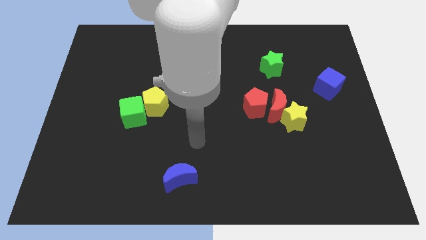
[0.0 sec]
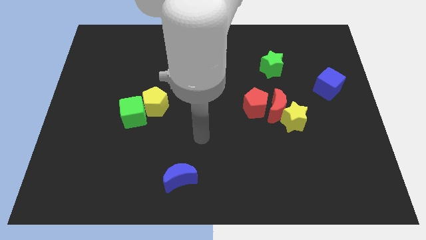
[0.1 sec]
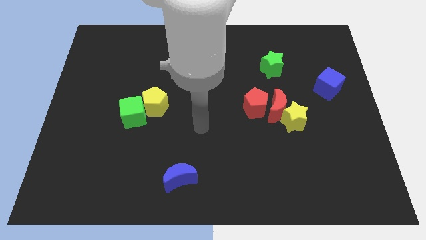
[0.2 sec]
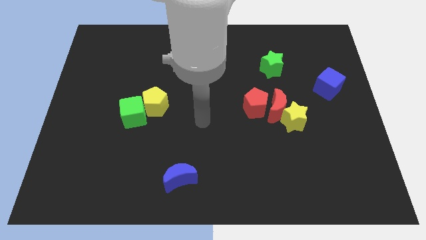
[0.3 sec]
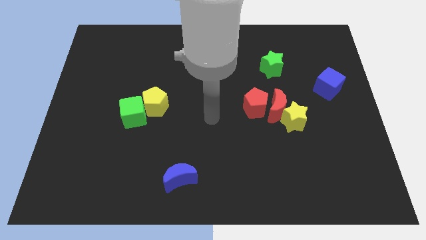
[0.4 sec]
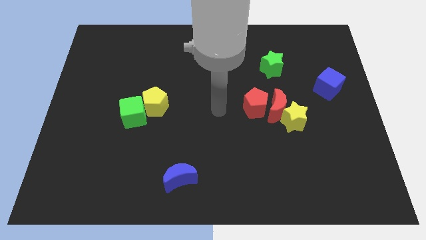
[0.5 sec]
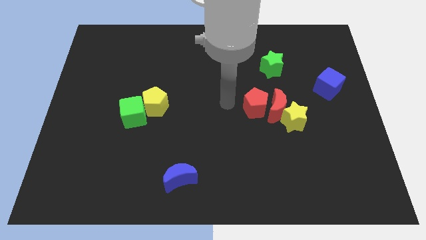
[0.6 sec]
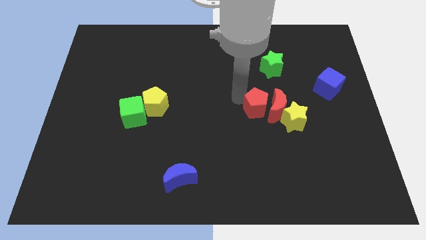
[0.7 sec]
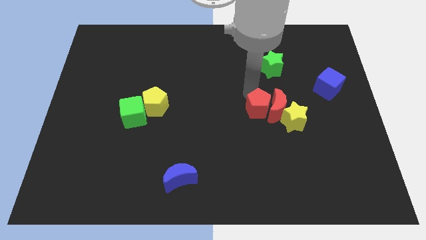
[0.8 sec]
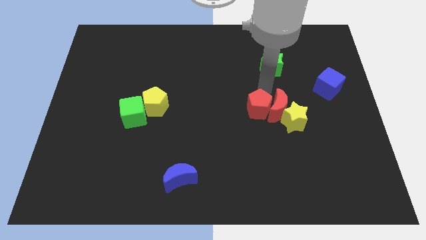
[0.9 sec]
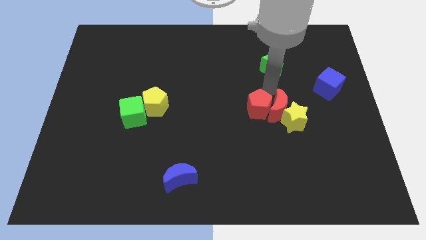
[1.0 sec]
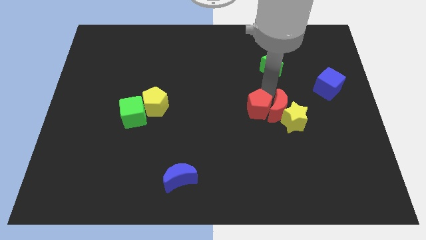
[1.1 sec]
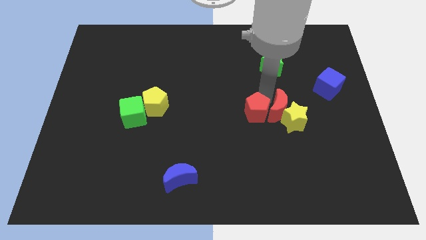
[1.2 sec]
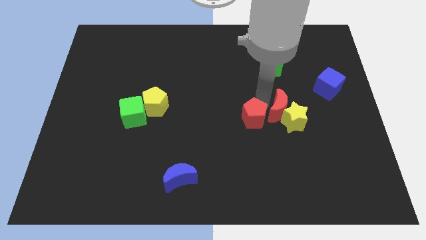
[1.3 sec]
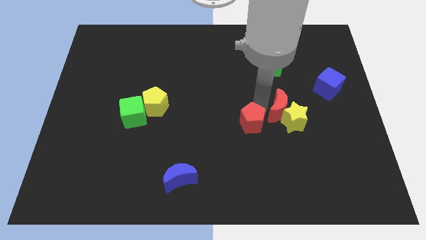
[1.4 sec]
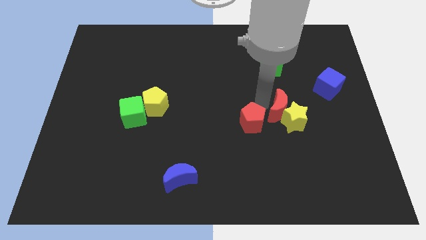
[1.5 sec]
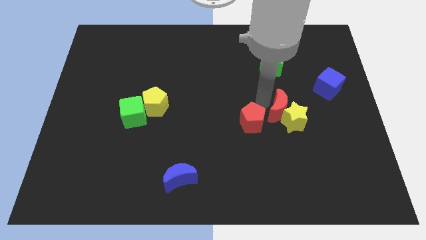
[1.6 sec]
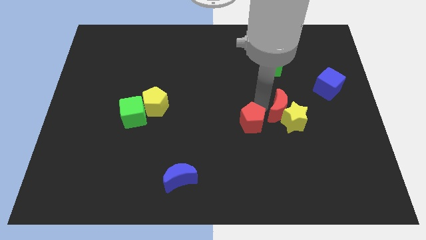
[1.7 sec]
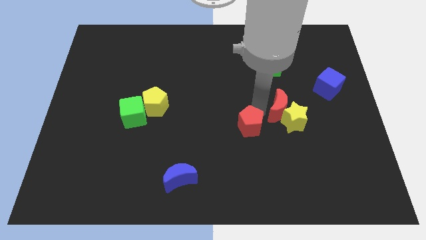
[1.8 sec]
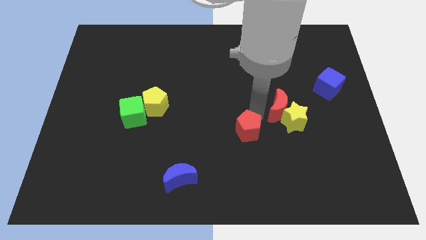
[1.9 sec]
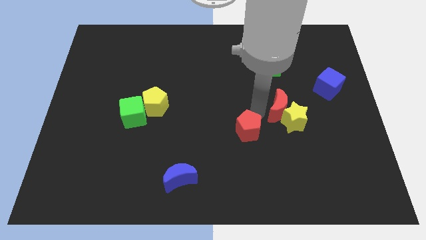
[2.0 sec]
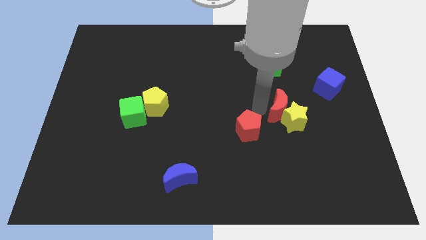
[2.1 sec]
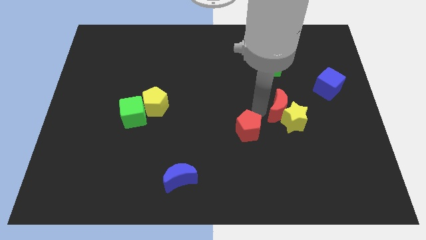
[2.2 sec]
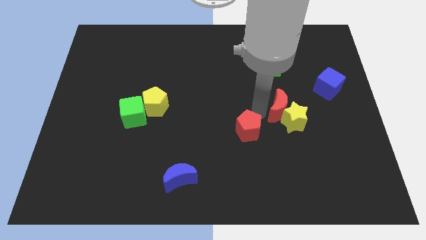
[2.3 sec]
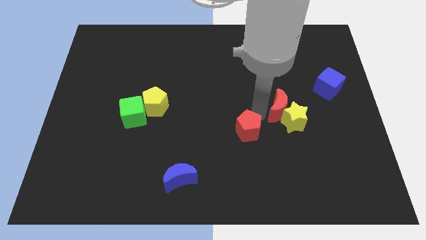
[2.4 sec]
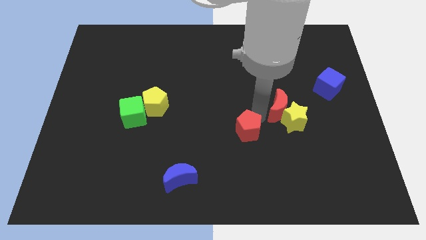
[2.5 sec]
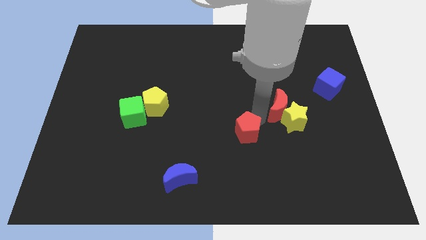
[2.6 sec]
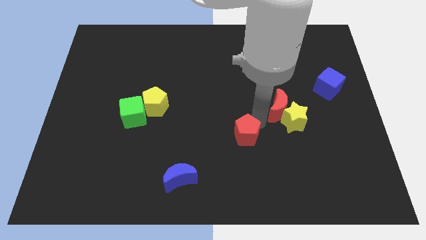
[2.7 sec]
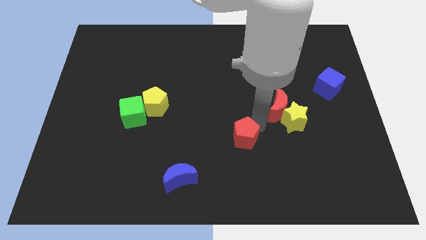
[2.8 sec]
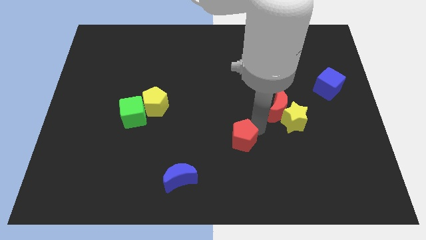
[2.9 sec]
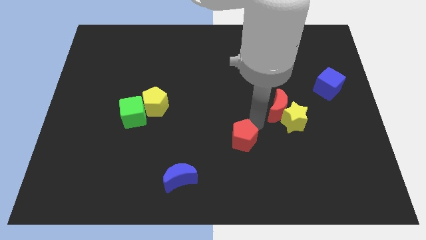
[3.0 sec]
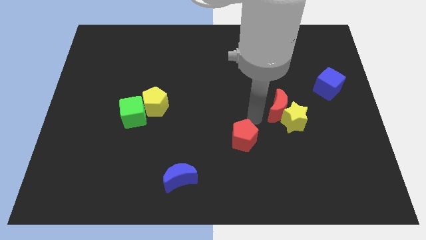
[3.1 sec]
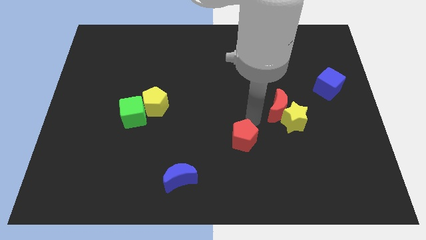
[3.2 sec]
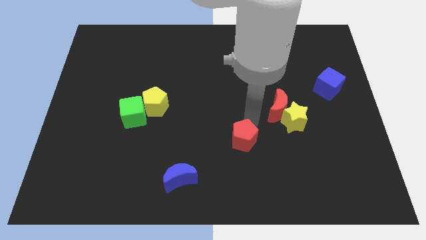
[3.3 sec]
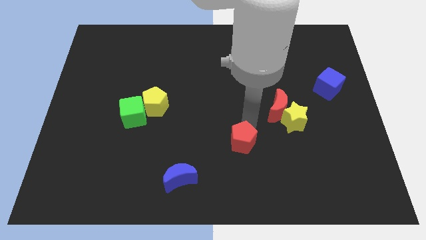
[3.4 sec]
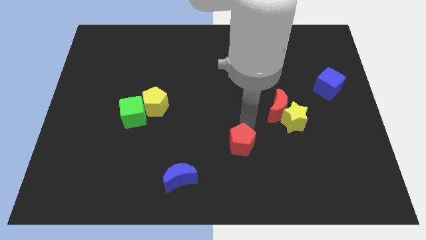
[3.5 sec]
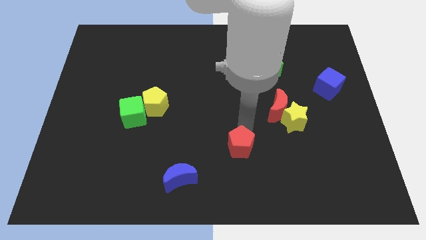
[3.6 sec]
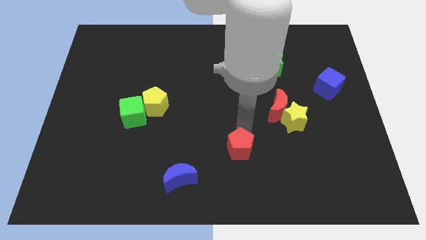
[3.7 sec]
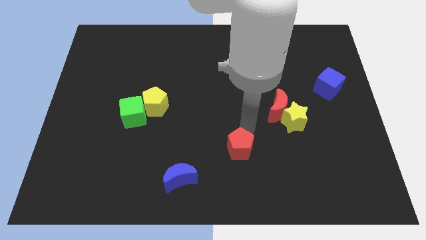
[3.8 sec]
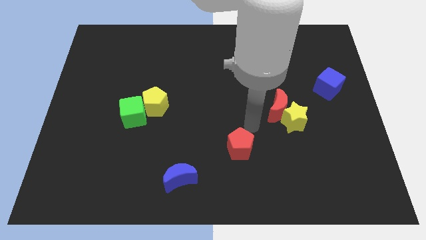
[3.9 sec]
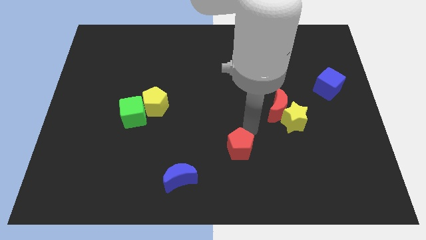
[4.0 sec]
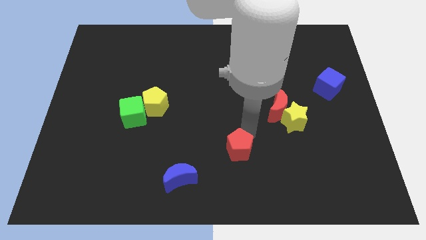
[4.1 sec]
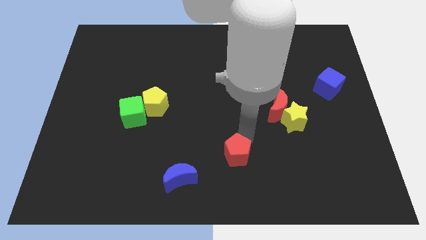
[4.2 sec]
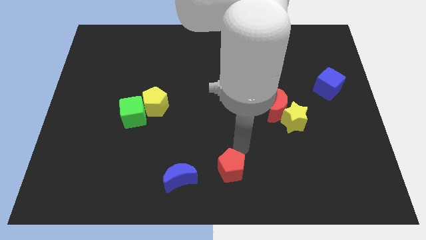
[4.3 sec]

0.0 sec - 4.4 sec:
put the red pentagon to the bottom

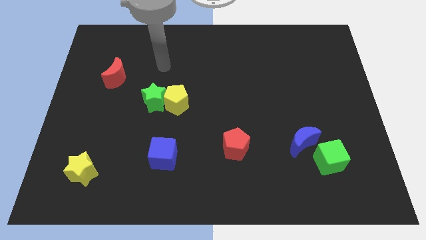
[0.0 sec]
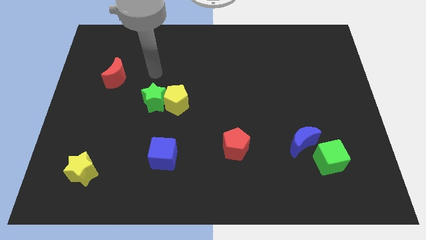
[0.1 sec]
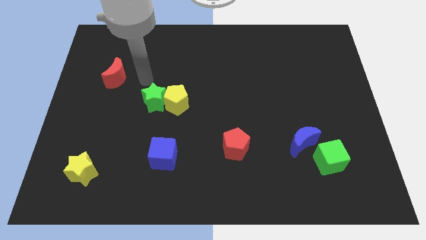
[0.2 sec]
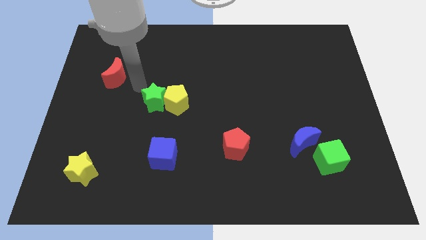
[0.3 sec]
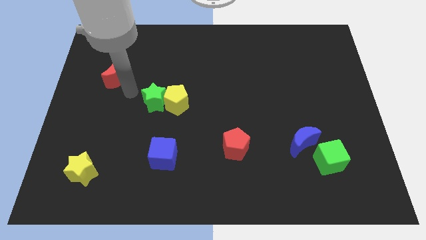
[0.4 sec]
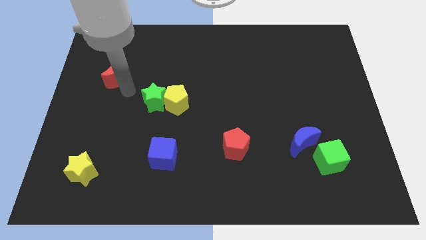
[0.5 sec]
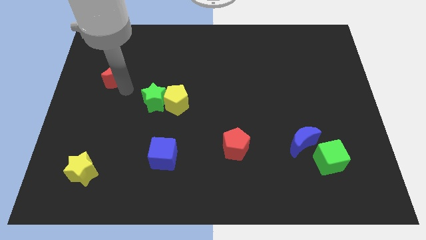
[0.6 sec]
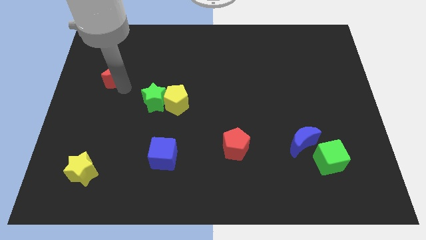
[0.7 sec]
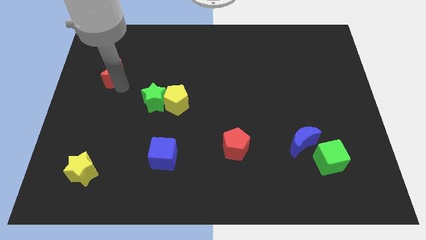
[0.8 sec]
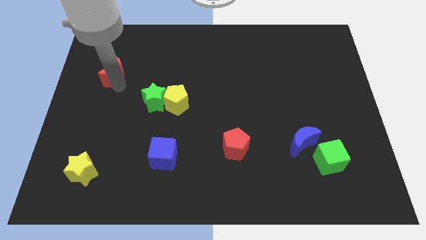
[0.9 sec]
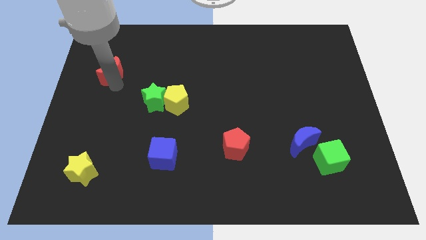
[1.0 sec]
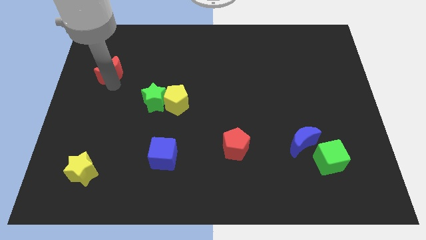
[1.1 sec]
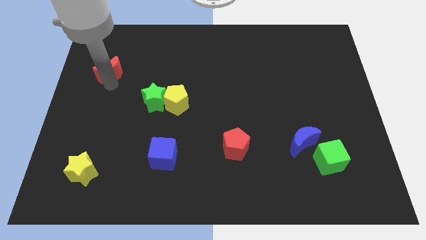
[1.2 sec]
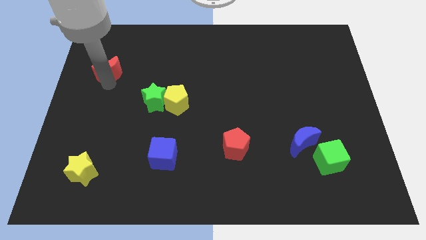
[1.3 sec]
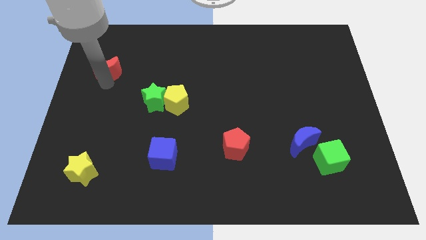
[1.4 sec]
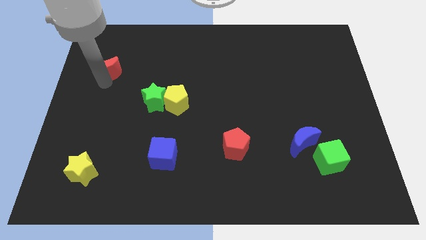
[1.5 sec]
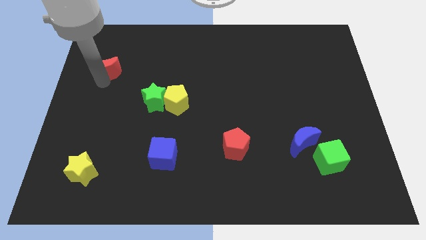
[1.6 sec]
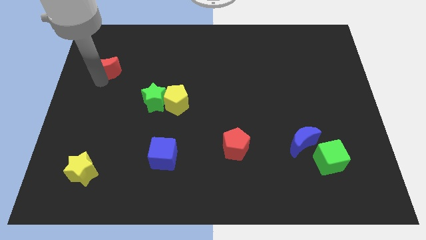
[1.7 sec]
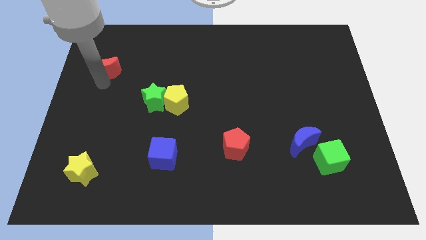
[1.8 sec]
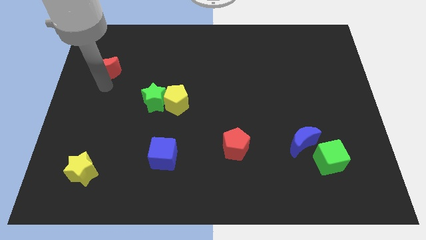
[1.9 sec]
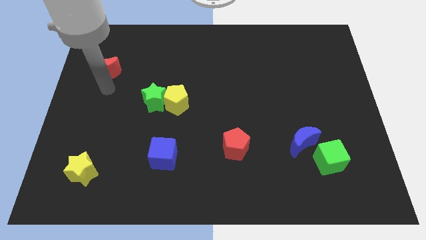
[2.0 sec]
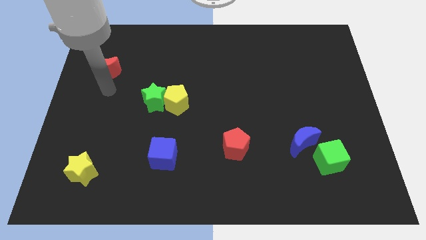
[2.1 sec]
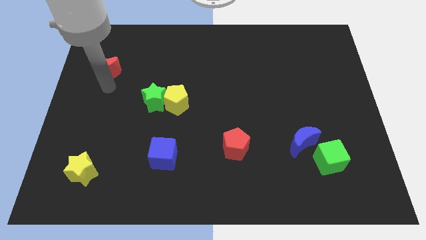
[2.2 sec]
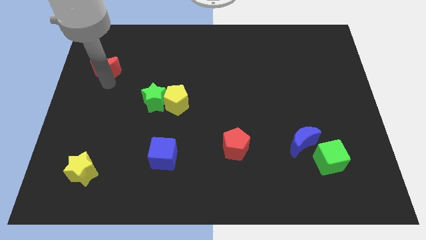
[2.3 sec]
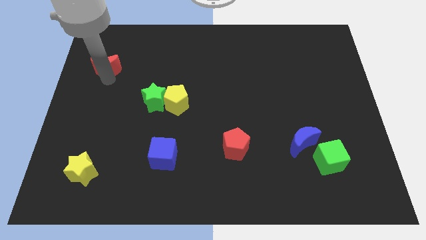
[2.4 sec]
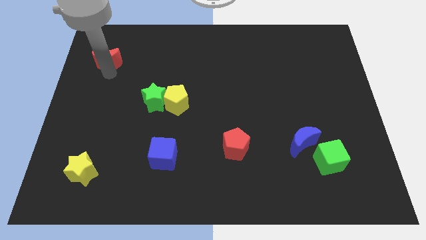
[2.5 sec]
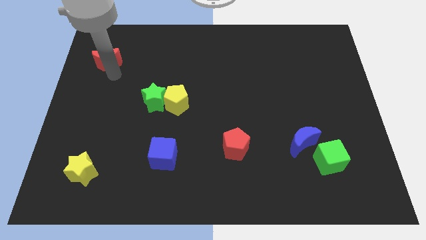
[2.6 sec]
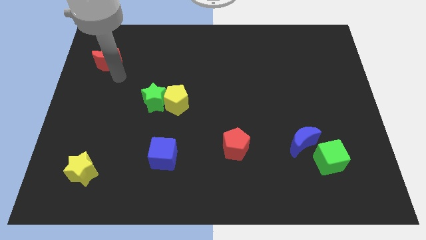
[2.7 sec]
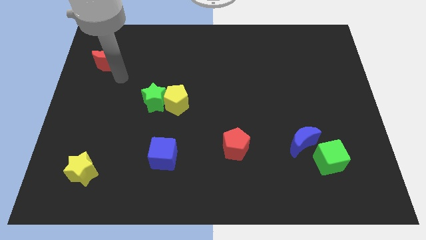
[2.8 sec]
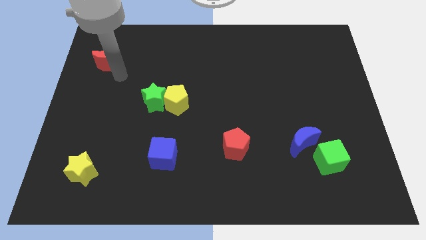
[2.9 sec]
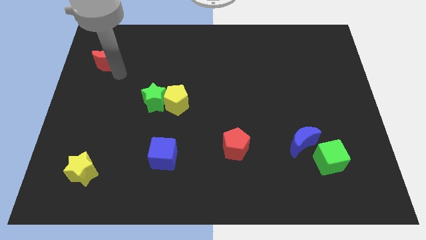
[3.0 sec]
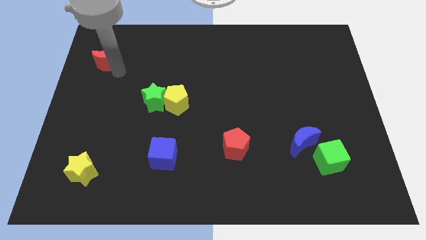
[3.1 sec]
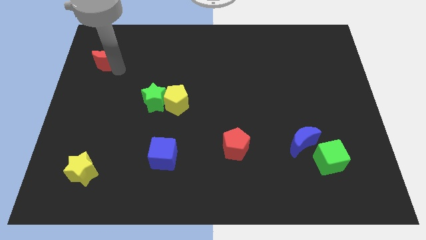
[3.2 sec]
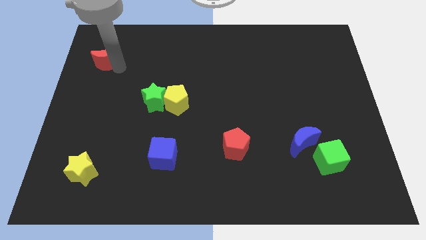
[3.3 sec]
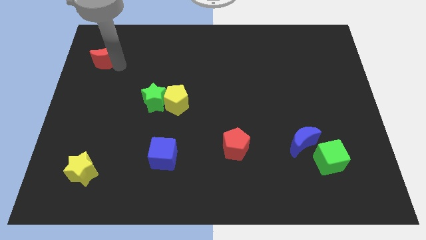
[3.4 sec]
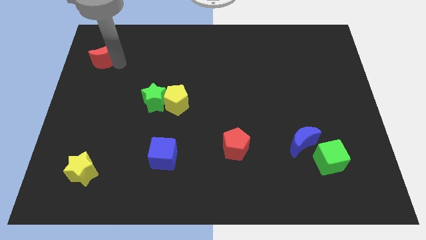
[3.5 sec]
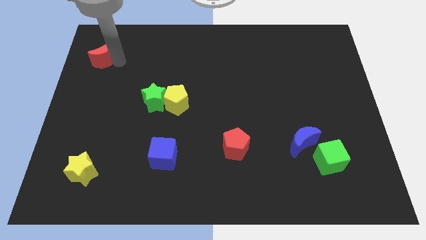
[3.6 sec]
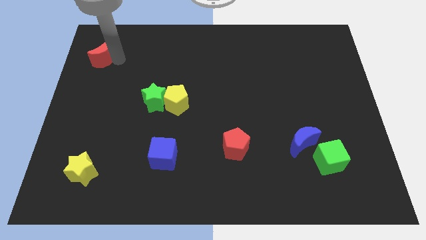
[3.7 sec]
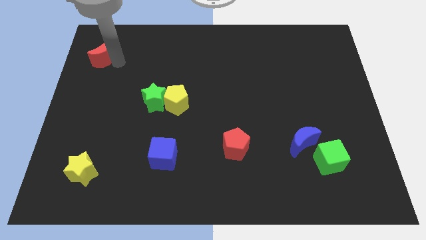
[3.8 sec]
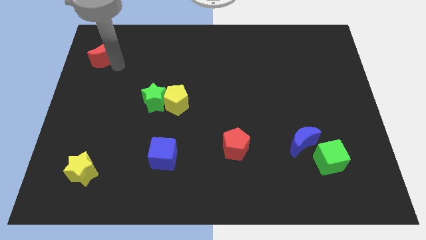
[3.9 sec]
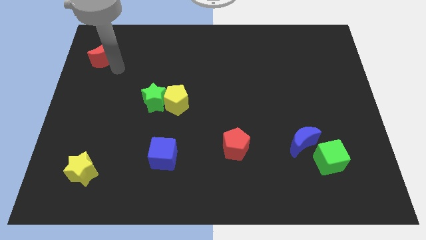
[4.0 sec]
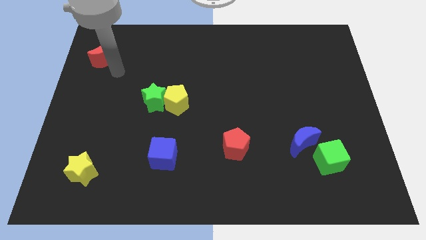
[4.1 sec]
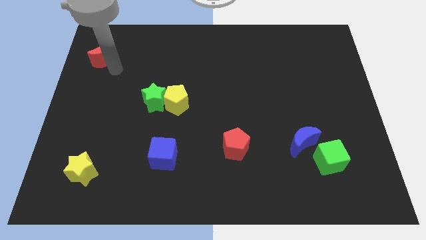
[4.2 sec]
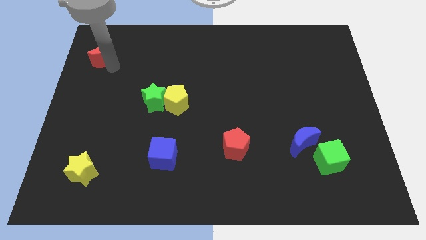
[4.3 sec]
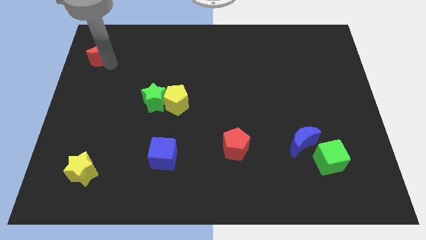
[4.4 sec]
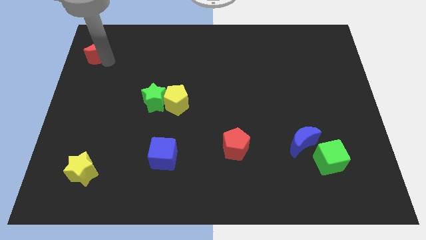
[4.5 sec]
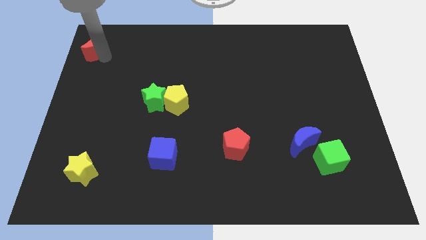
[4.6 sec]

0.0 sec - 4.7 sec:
slide the red moon to the top left corner
